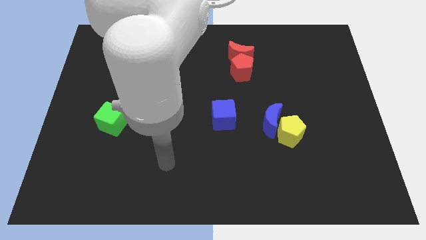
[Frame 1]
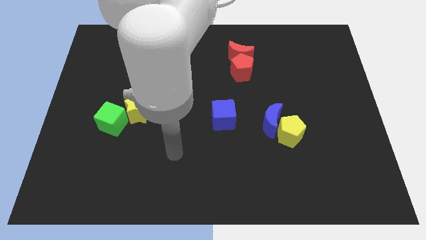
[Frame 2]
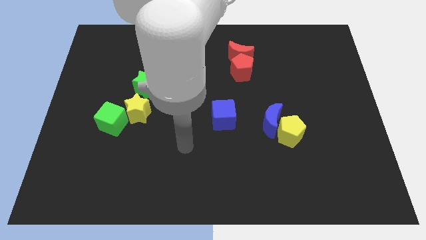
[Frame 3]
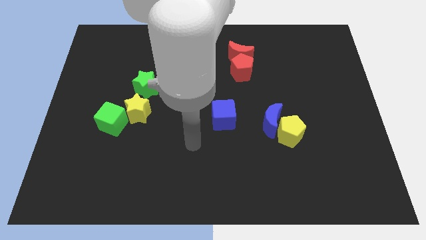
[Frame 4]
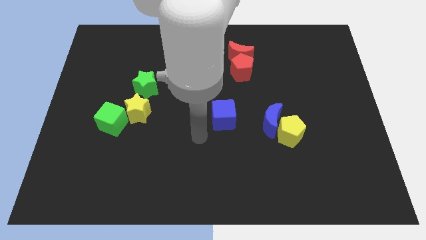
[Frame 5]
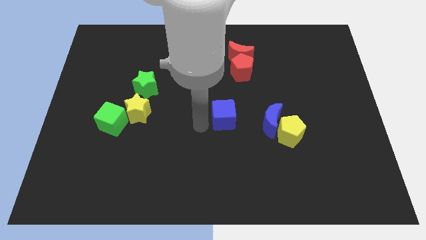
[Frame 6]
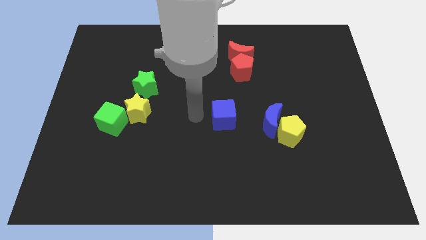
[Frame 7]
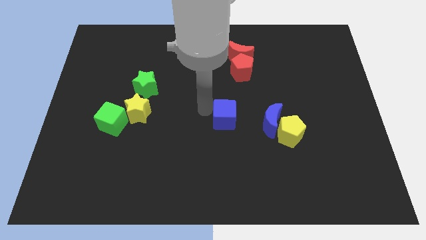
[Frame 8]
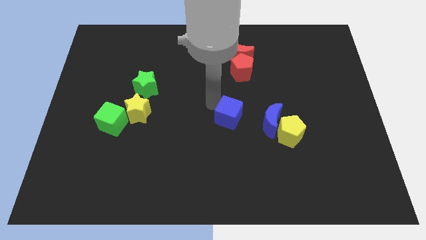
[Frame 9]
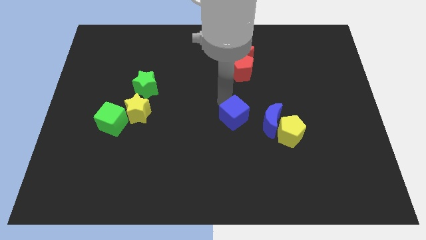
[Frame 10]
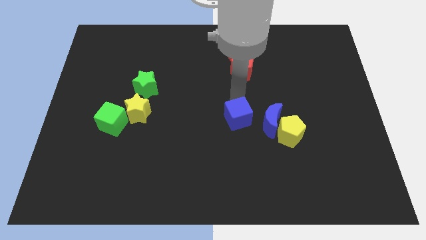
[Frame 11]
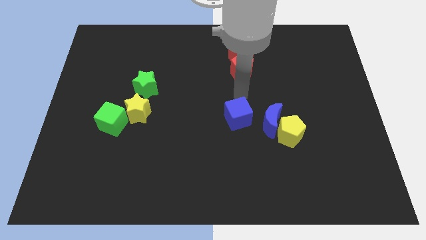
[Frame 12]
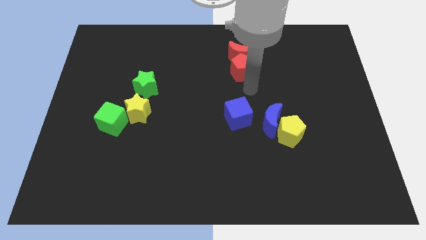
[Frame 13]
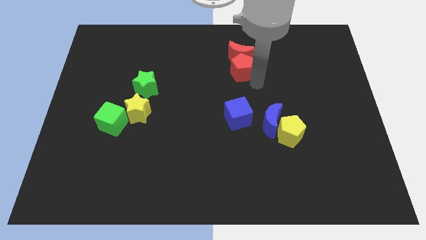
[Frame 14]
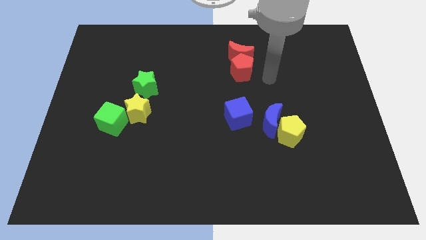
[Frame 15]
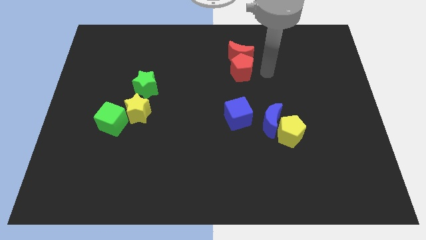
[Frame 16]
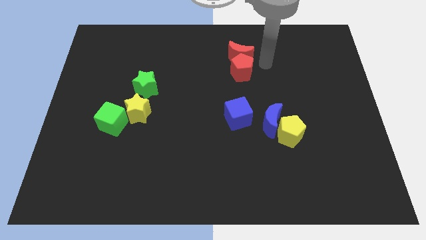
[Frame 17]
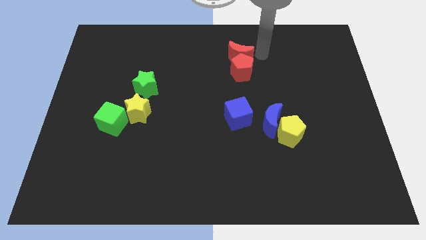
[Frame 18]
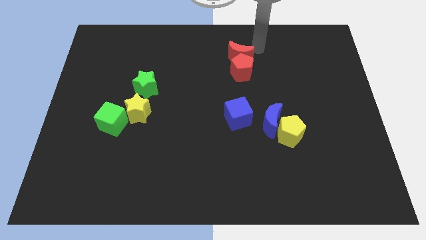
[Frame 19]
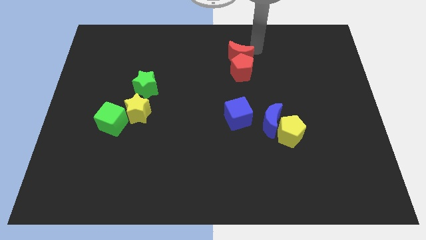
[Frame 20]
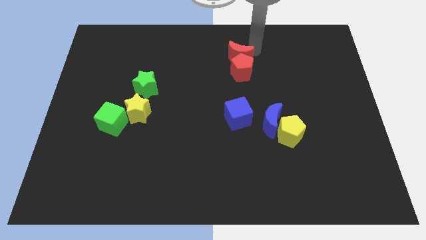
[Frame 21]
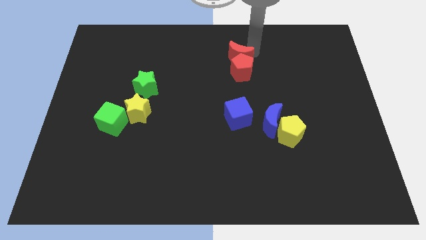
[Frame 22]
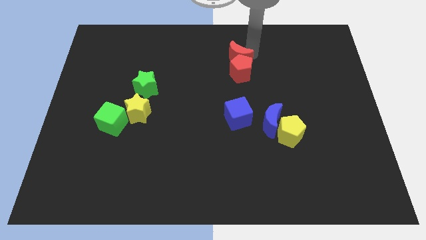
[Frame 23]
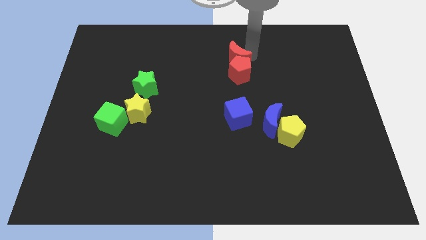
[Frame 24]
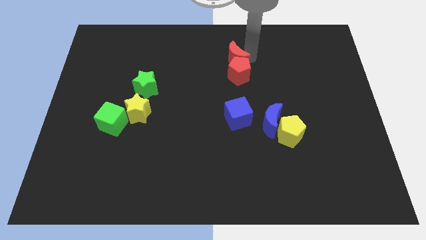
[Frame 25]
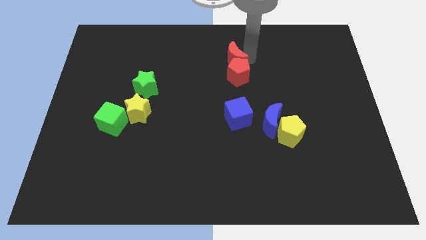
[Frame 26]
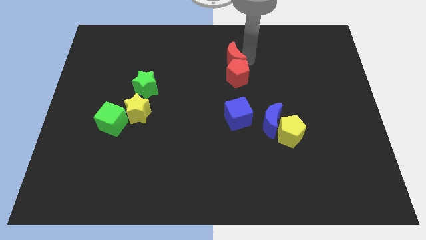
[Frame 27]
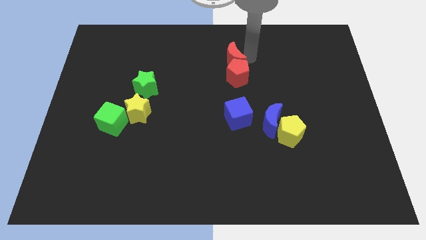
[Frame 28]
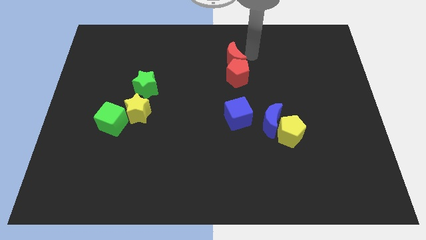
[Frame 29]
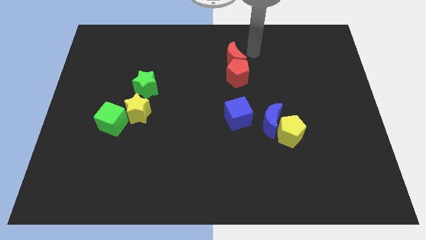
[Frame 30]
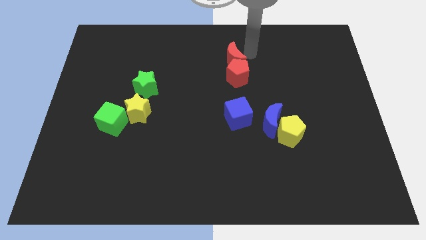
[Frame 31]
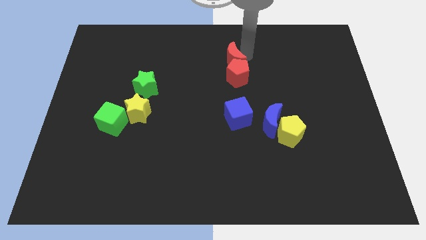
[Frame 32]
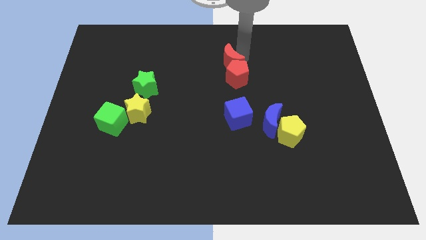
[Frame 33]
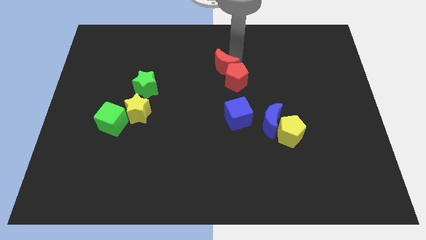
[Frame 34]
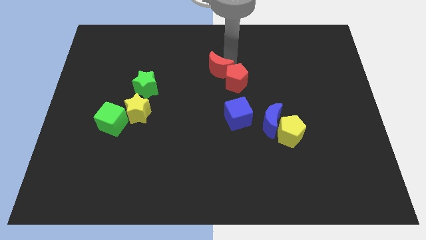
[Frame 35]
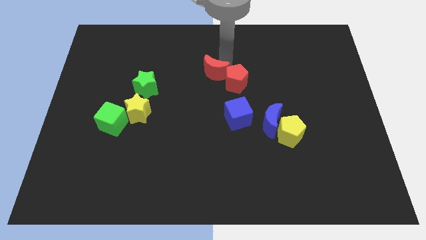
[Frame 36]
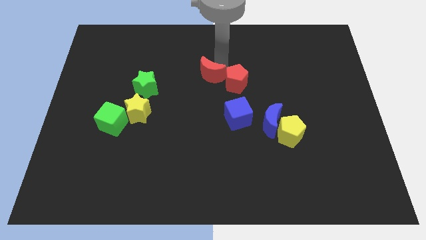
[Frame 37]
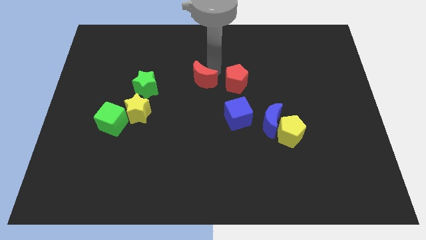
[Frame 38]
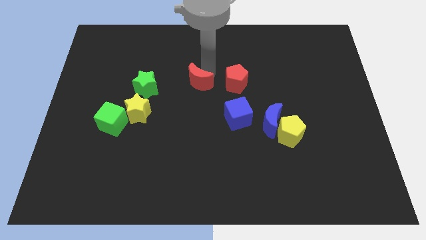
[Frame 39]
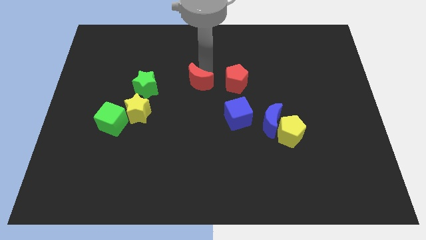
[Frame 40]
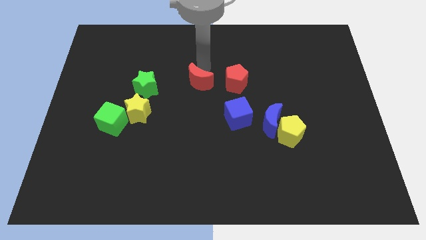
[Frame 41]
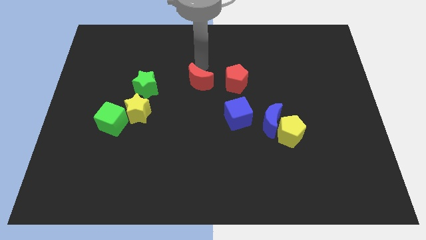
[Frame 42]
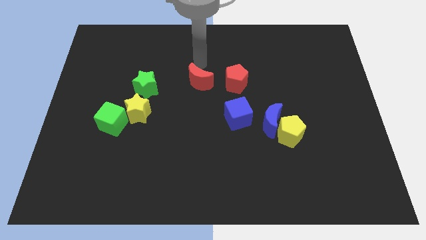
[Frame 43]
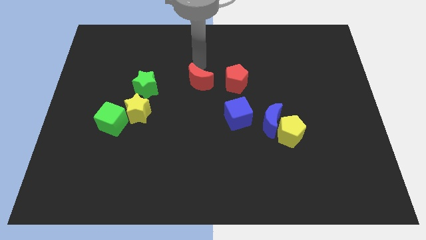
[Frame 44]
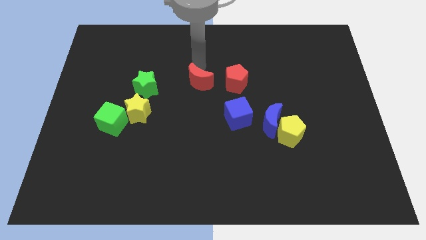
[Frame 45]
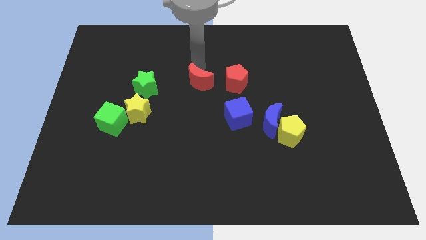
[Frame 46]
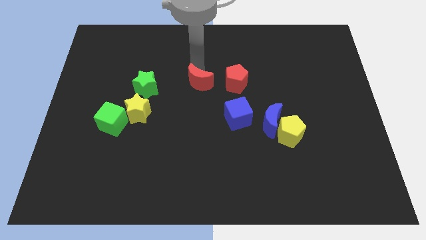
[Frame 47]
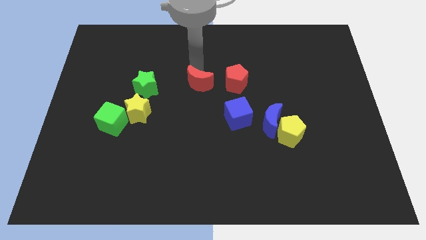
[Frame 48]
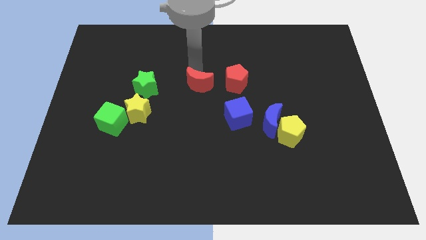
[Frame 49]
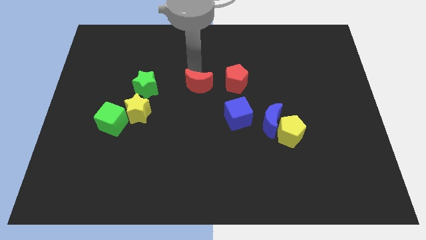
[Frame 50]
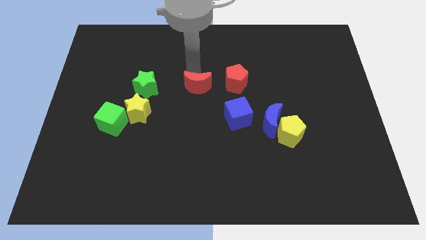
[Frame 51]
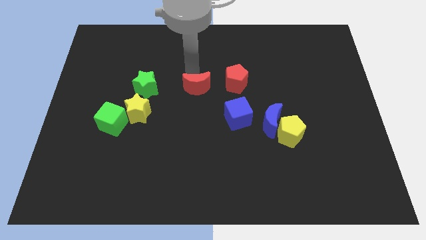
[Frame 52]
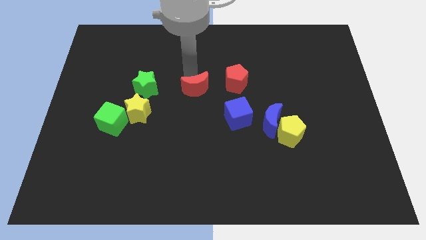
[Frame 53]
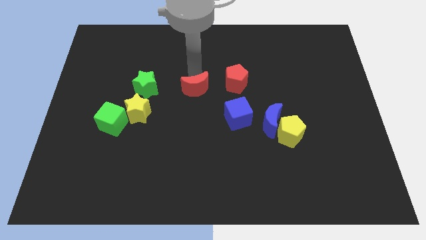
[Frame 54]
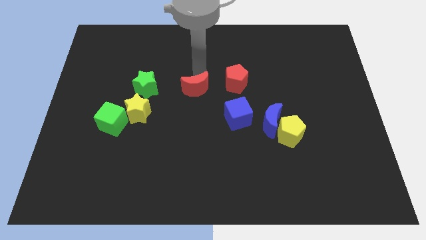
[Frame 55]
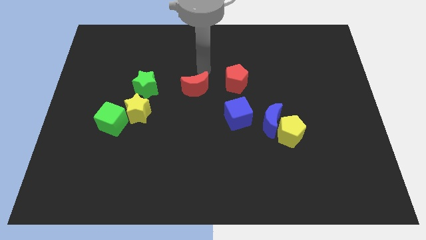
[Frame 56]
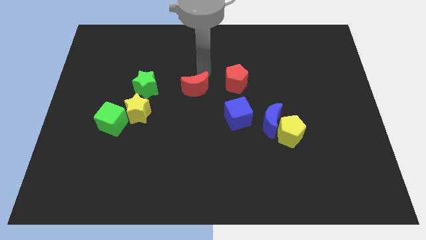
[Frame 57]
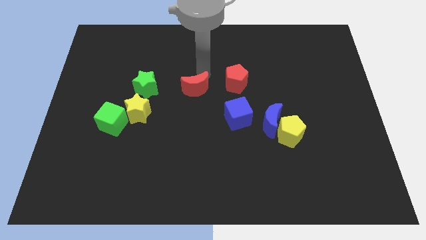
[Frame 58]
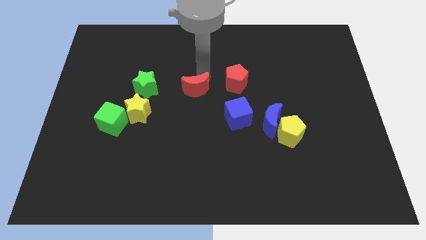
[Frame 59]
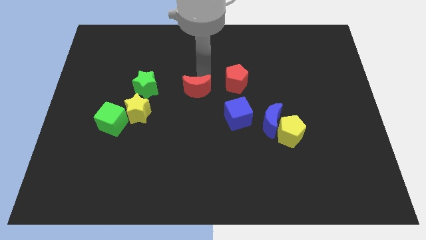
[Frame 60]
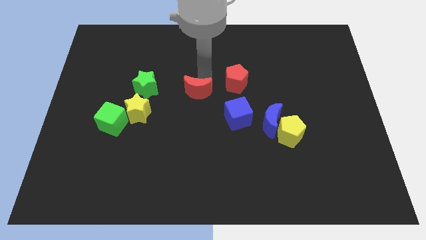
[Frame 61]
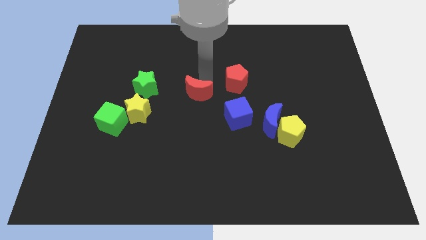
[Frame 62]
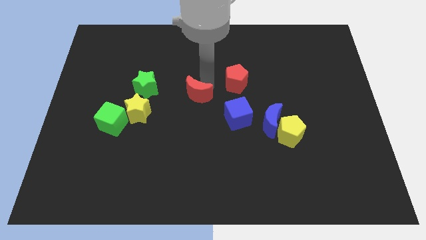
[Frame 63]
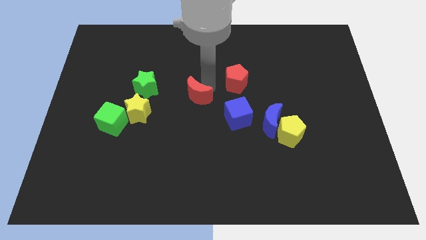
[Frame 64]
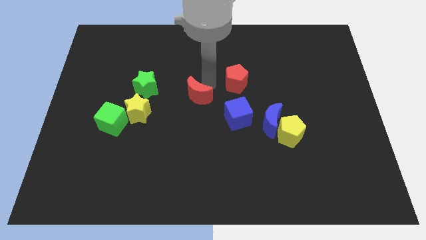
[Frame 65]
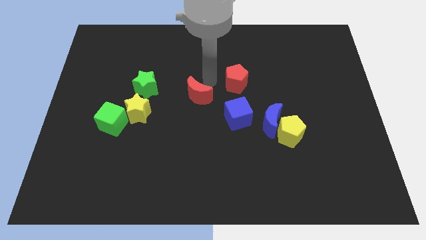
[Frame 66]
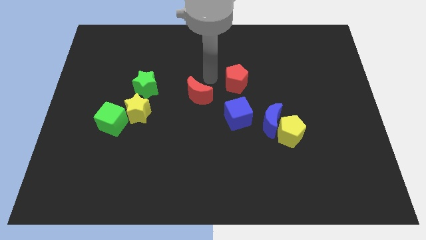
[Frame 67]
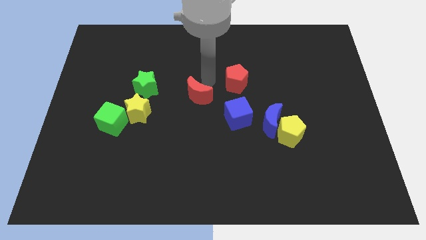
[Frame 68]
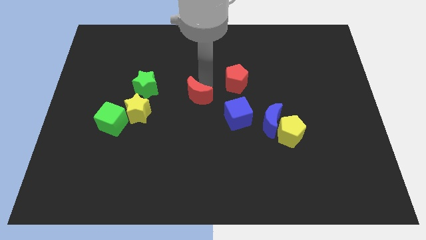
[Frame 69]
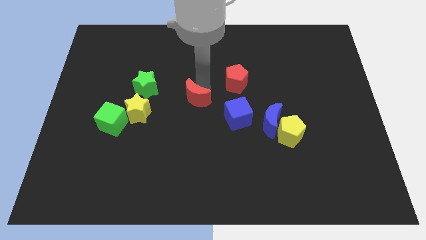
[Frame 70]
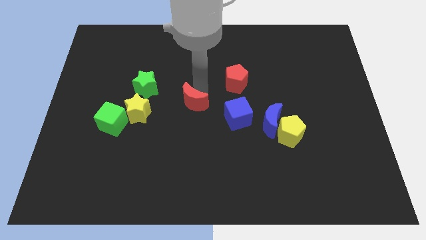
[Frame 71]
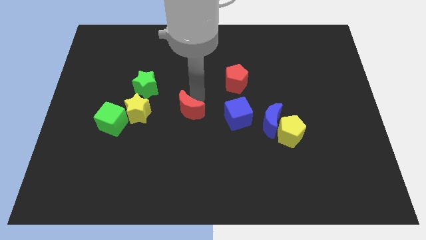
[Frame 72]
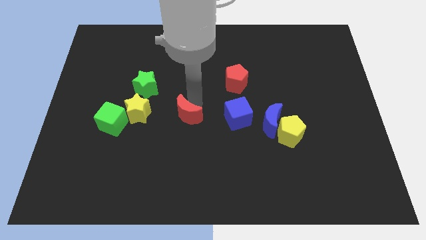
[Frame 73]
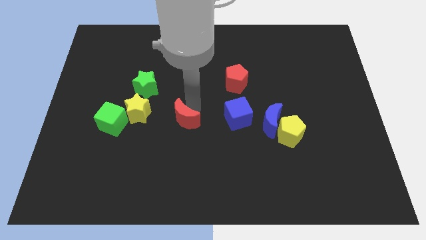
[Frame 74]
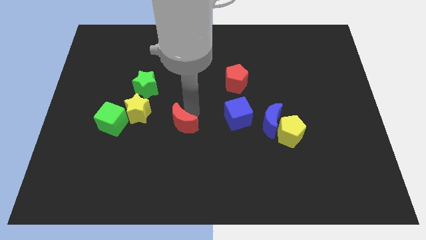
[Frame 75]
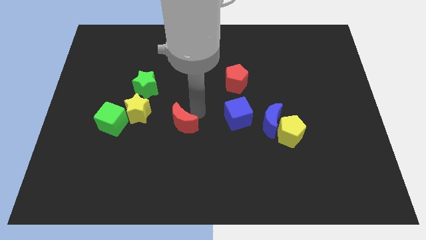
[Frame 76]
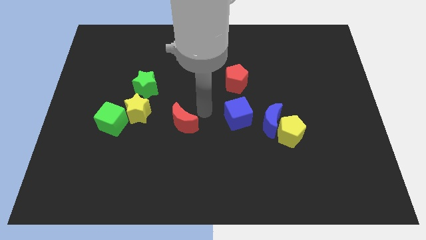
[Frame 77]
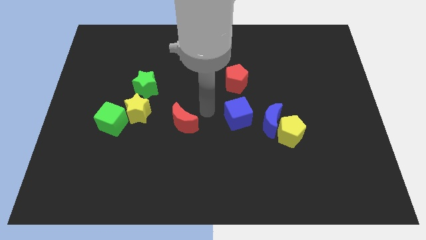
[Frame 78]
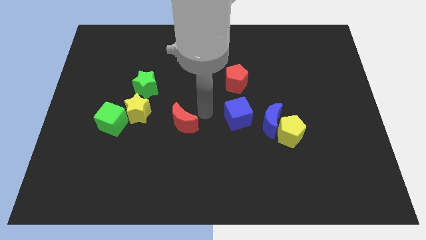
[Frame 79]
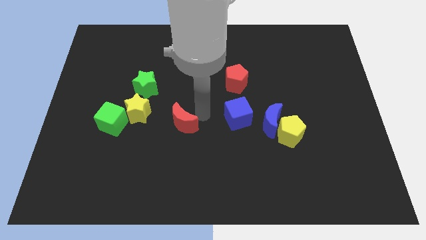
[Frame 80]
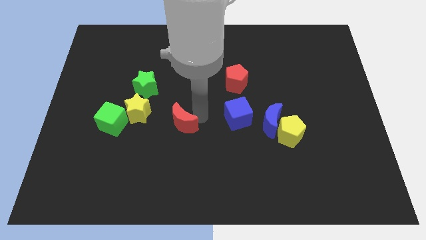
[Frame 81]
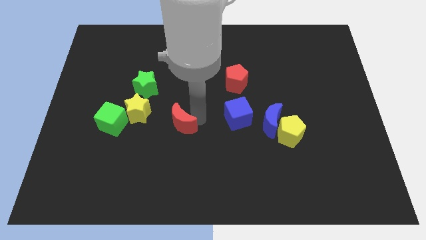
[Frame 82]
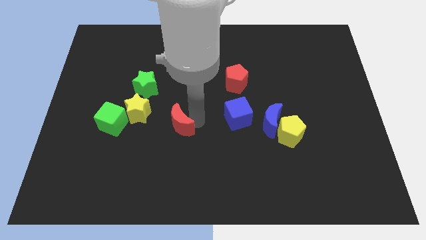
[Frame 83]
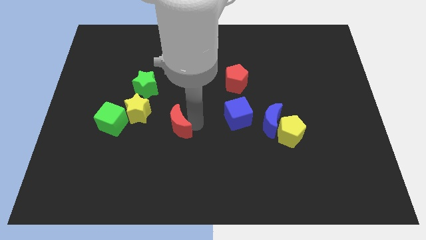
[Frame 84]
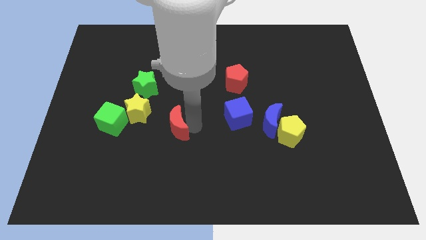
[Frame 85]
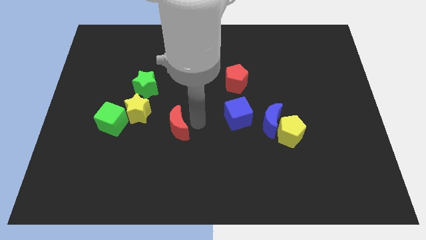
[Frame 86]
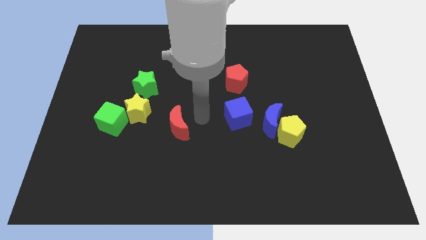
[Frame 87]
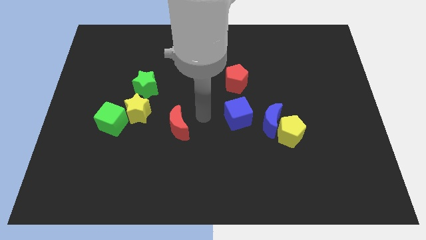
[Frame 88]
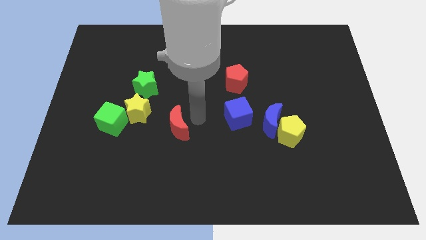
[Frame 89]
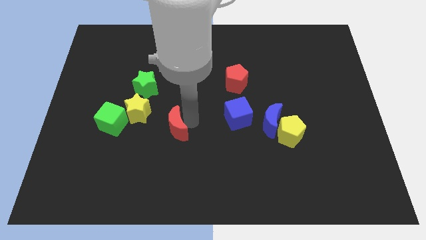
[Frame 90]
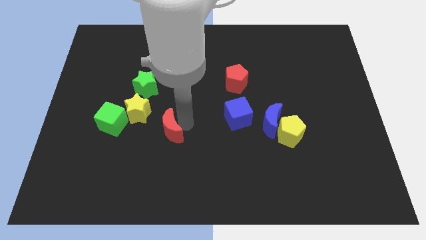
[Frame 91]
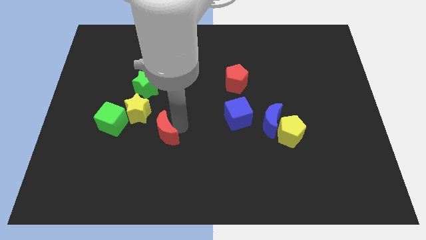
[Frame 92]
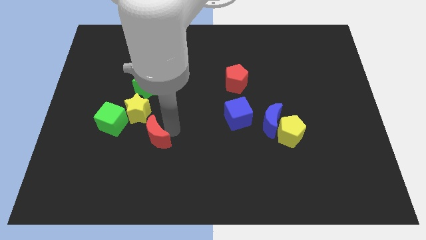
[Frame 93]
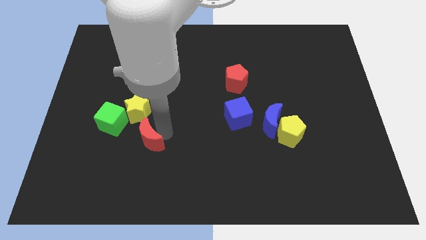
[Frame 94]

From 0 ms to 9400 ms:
slide the red moon below the yellow star
